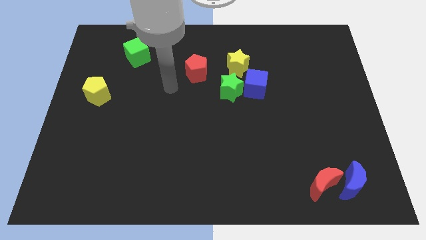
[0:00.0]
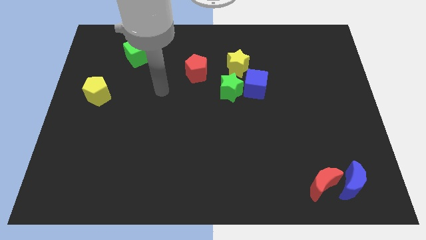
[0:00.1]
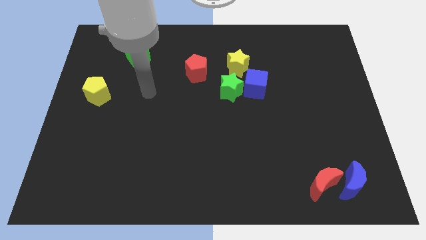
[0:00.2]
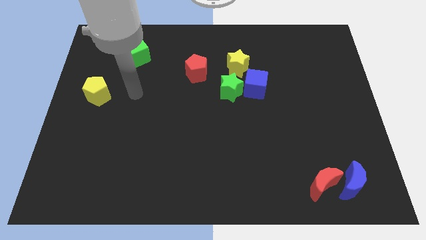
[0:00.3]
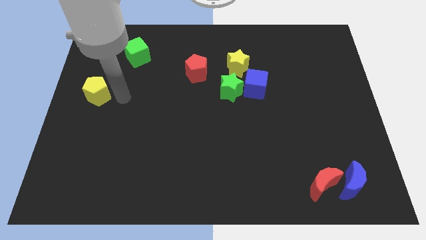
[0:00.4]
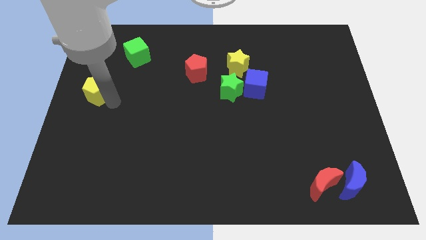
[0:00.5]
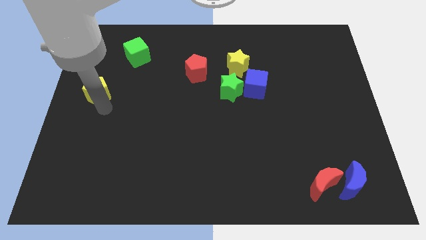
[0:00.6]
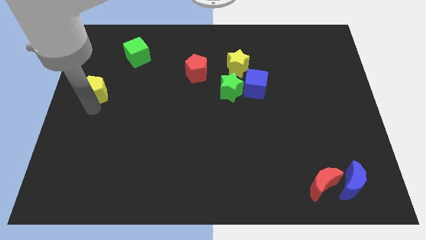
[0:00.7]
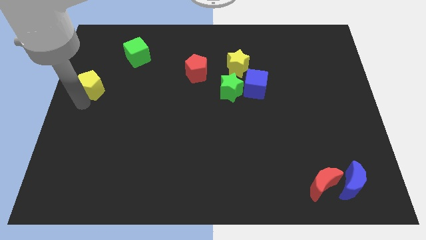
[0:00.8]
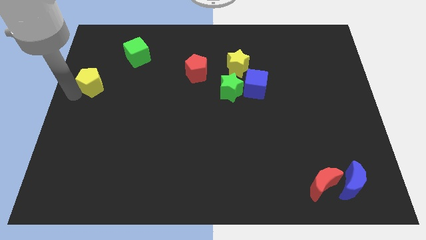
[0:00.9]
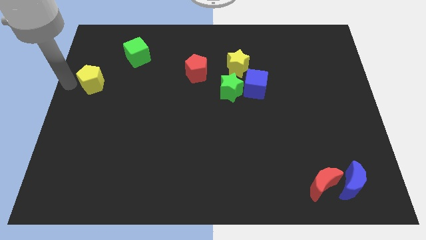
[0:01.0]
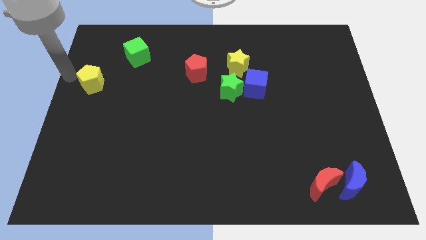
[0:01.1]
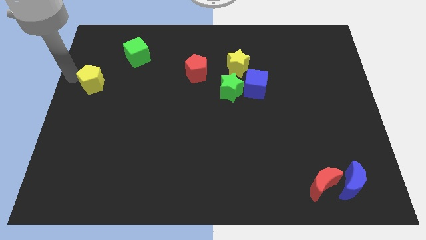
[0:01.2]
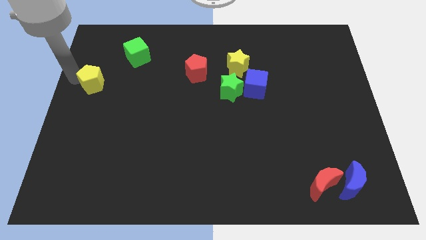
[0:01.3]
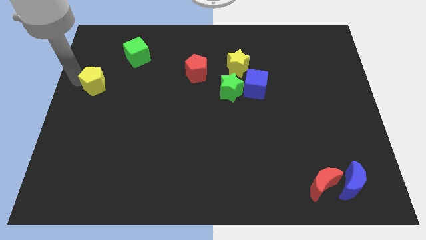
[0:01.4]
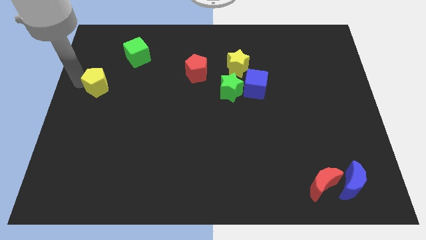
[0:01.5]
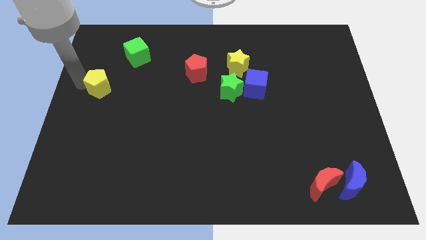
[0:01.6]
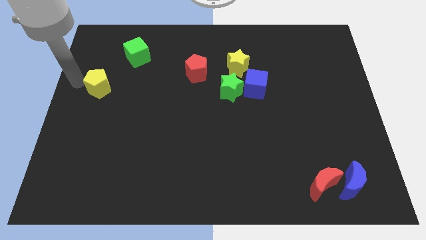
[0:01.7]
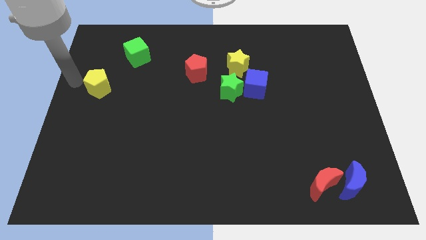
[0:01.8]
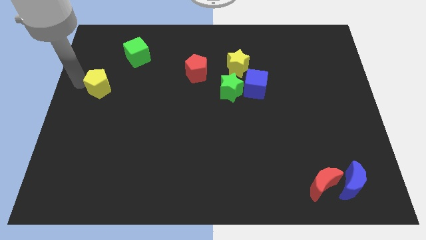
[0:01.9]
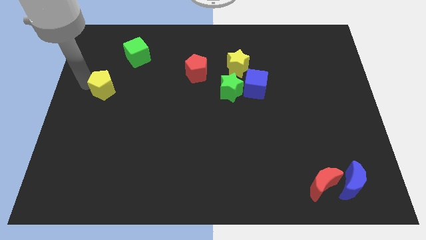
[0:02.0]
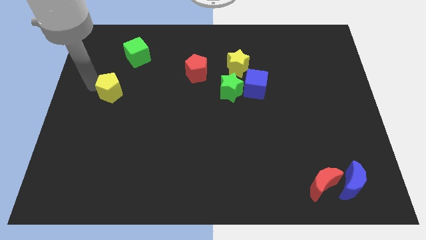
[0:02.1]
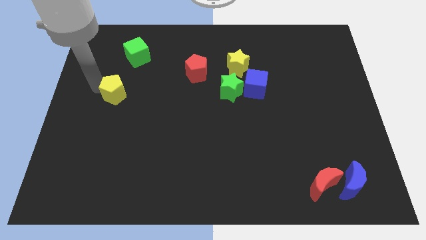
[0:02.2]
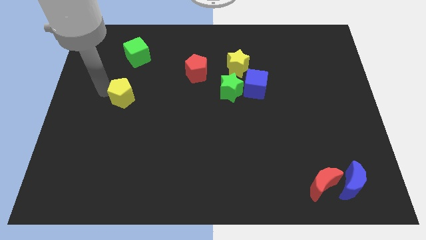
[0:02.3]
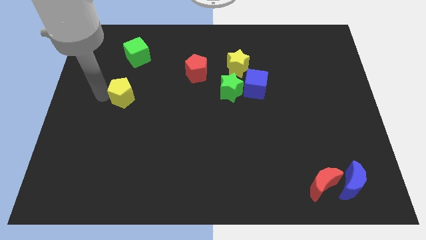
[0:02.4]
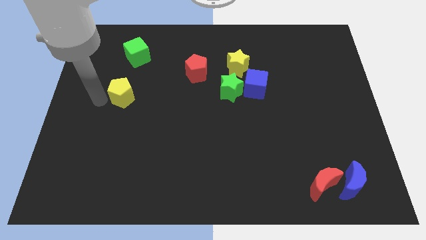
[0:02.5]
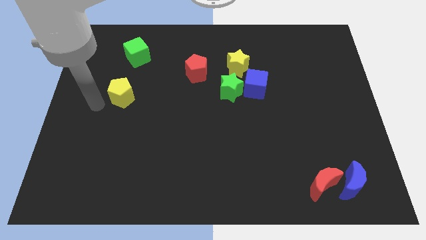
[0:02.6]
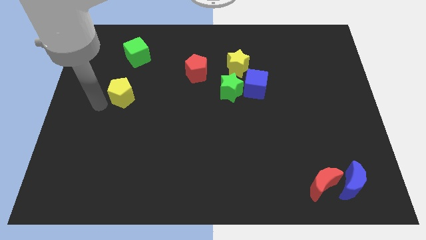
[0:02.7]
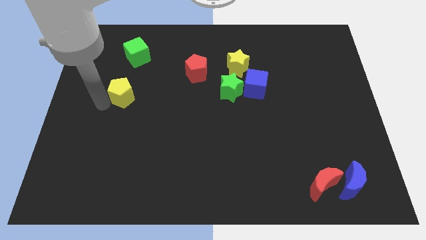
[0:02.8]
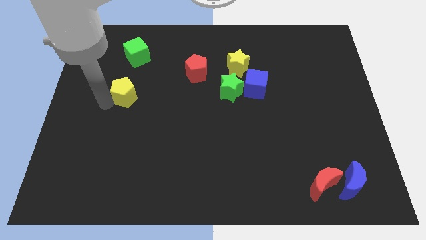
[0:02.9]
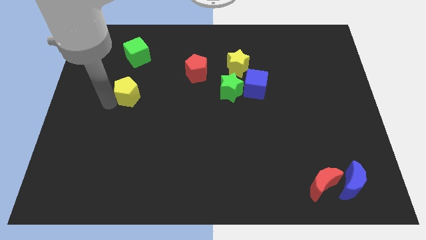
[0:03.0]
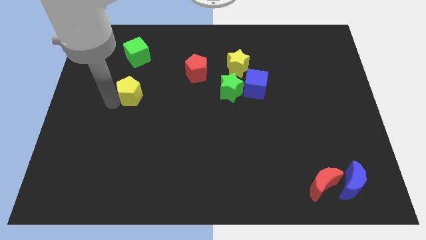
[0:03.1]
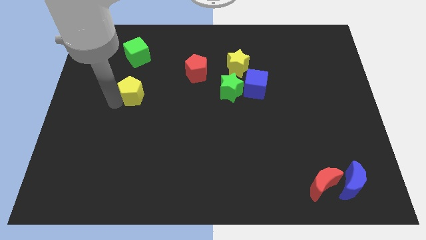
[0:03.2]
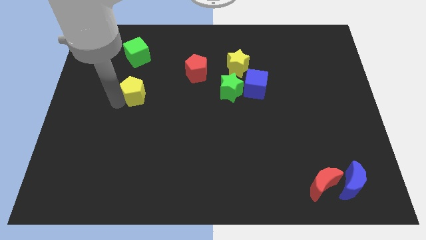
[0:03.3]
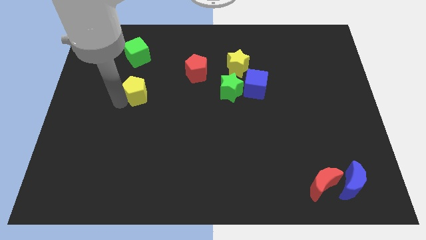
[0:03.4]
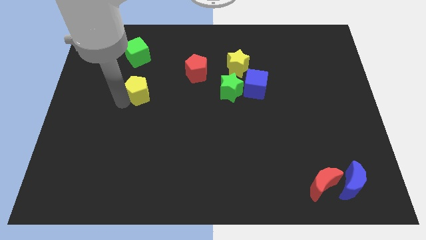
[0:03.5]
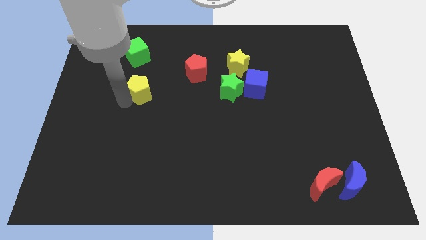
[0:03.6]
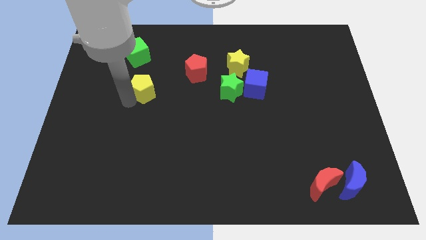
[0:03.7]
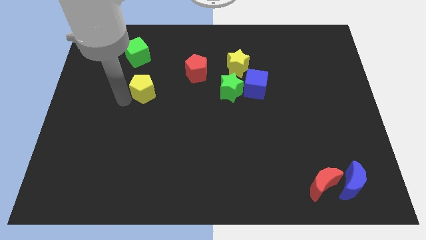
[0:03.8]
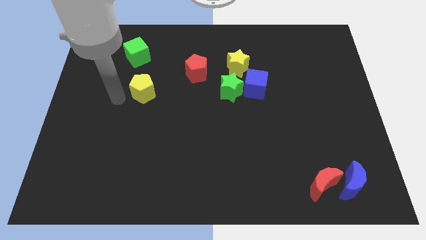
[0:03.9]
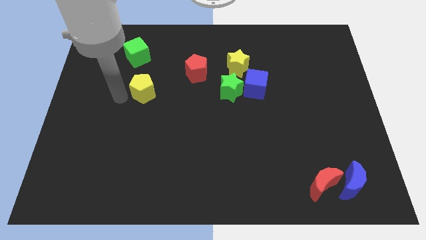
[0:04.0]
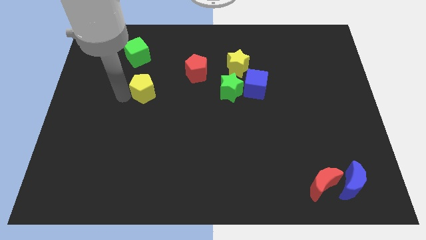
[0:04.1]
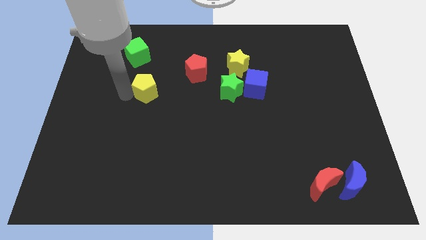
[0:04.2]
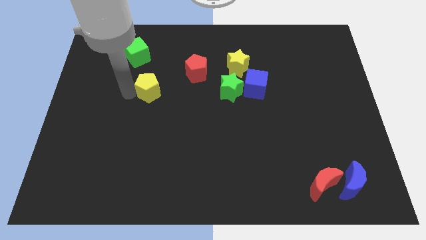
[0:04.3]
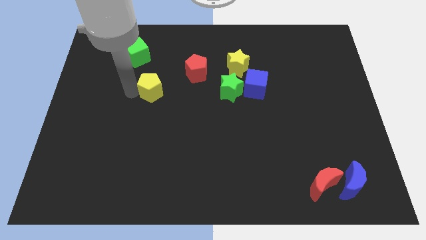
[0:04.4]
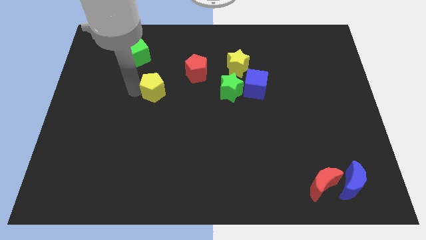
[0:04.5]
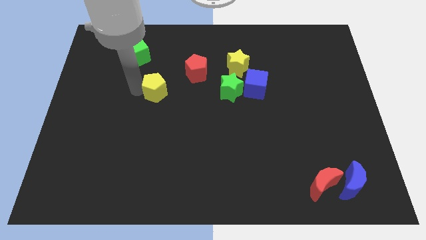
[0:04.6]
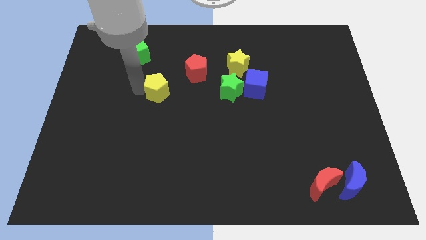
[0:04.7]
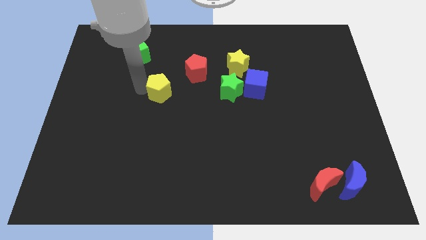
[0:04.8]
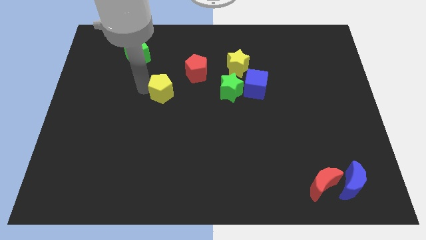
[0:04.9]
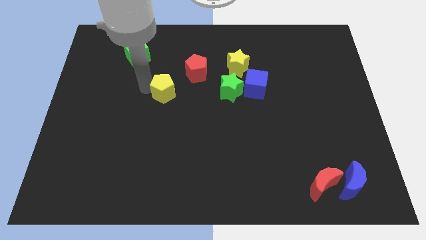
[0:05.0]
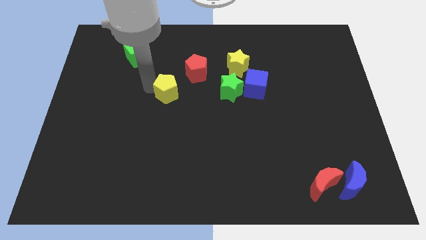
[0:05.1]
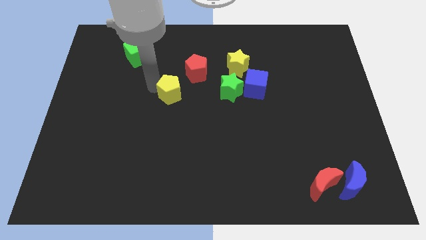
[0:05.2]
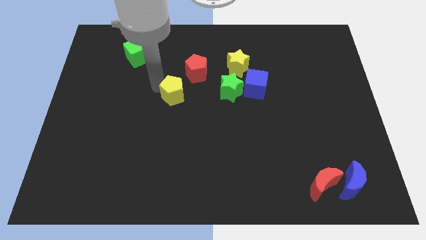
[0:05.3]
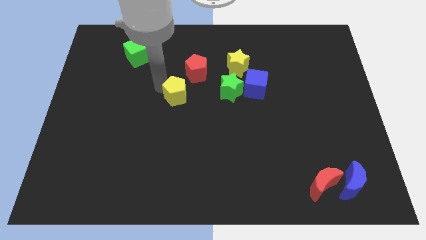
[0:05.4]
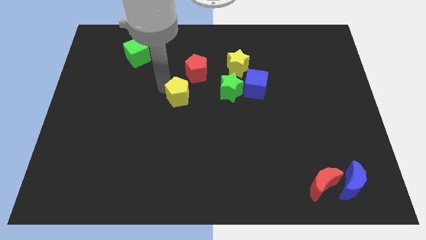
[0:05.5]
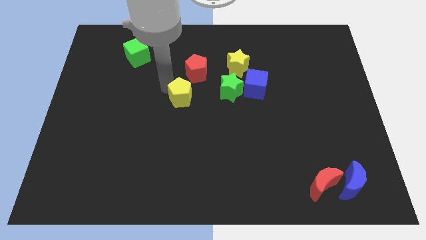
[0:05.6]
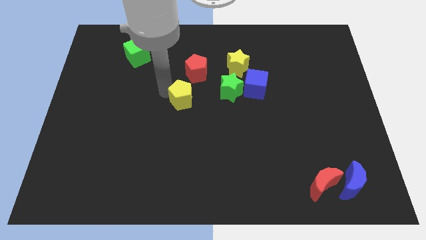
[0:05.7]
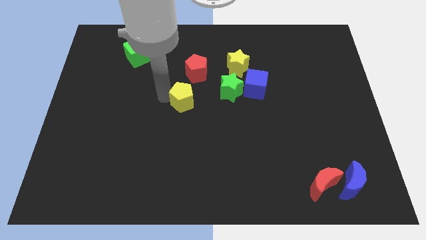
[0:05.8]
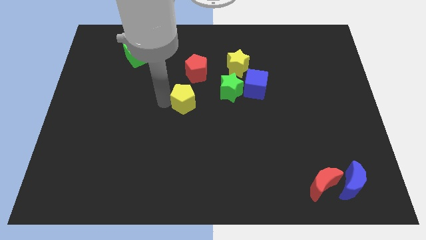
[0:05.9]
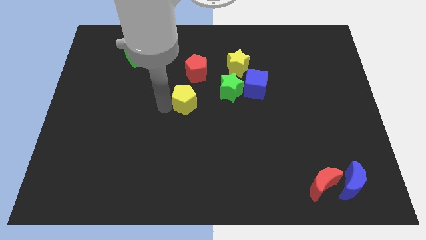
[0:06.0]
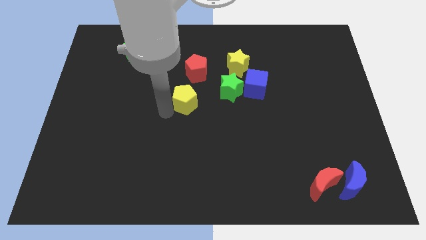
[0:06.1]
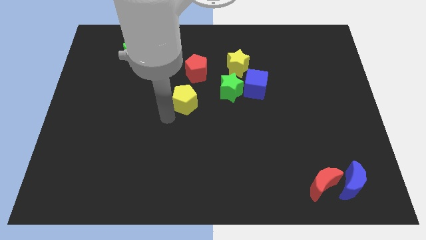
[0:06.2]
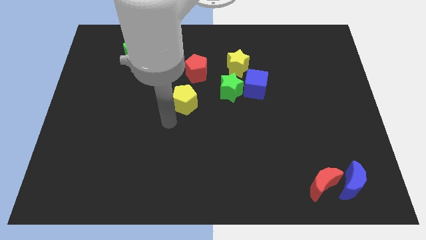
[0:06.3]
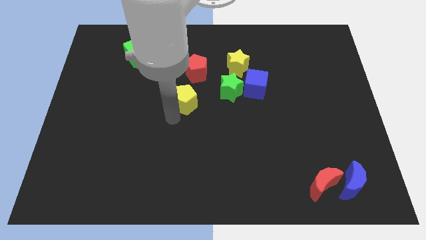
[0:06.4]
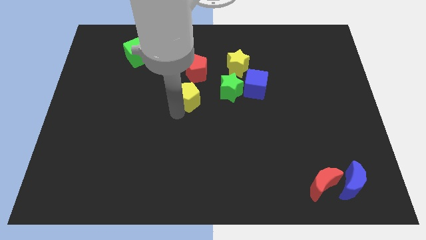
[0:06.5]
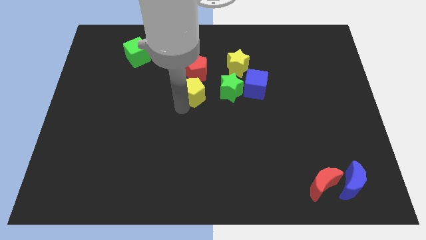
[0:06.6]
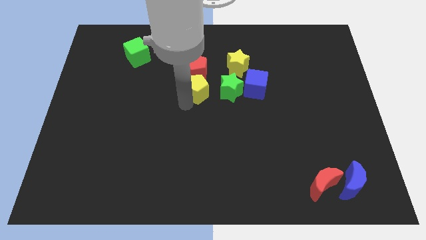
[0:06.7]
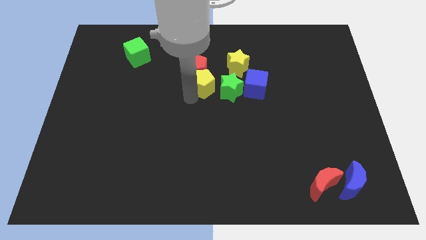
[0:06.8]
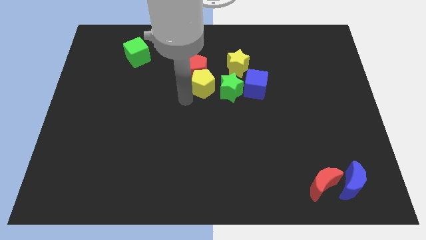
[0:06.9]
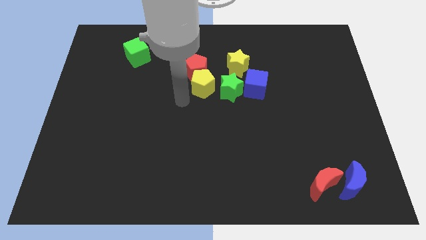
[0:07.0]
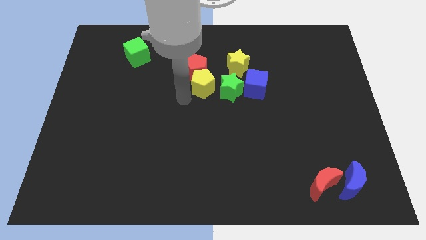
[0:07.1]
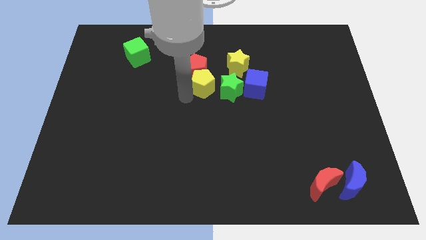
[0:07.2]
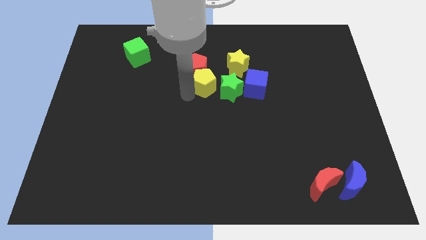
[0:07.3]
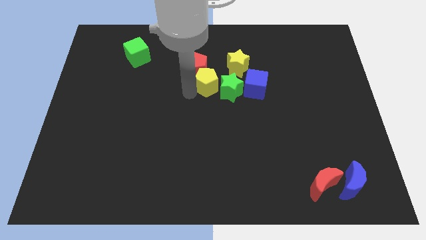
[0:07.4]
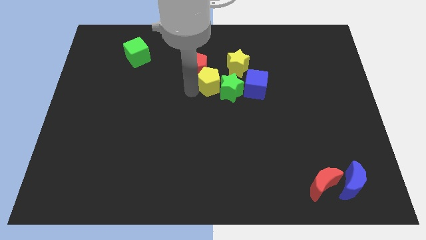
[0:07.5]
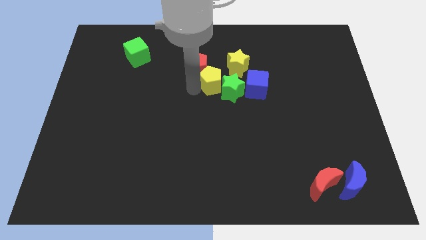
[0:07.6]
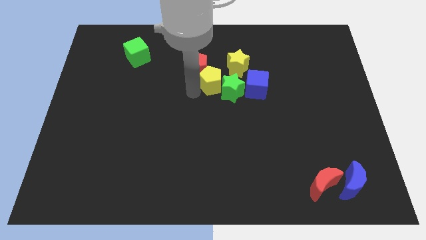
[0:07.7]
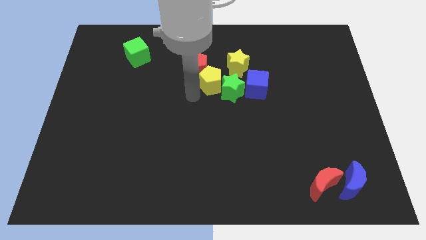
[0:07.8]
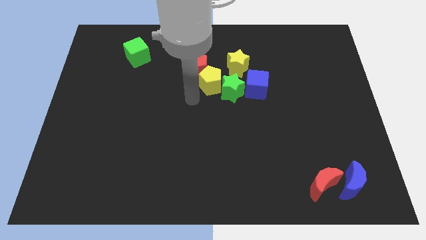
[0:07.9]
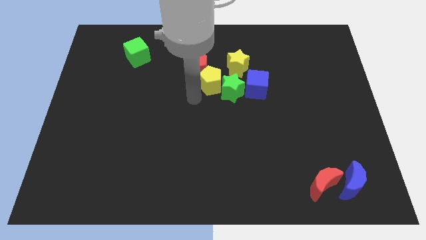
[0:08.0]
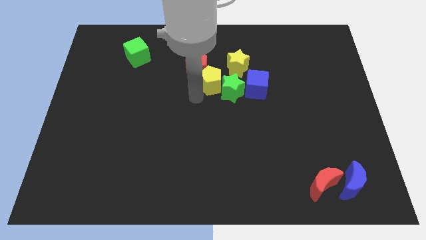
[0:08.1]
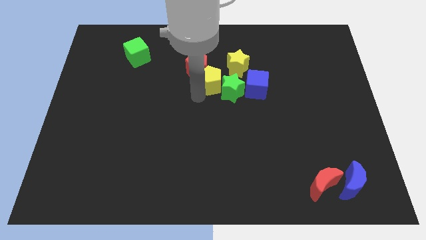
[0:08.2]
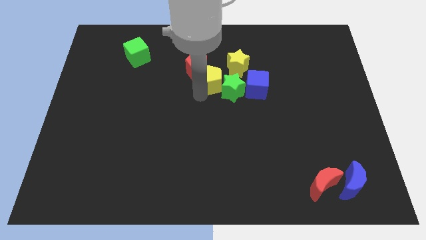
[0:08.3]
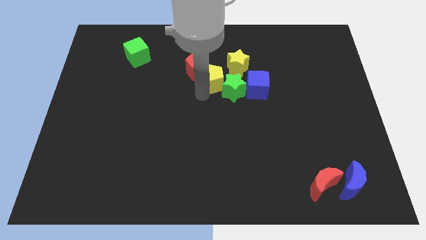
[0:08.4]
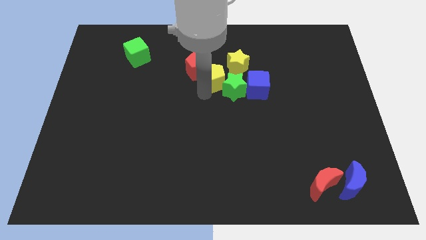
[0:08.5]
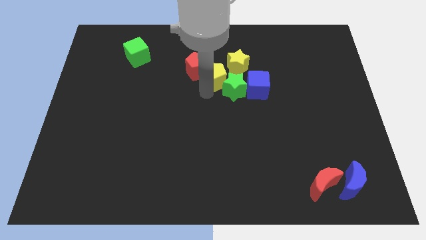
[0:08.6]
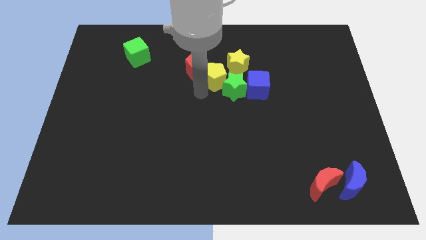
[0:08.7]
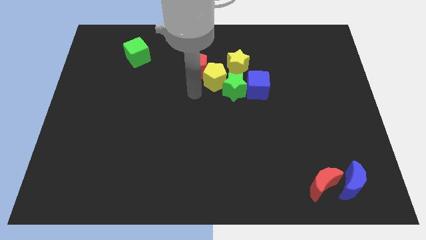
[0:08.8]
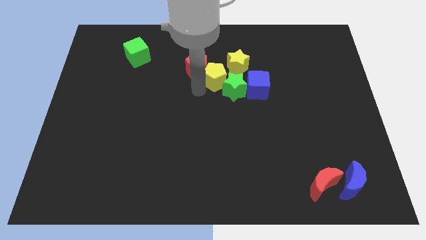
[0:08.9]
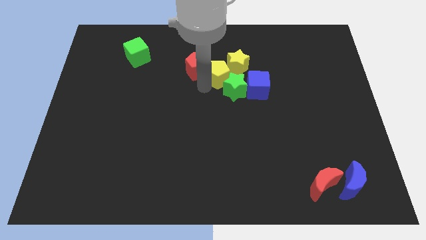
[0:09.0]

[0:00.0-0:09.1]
push the yellow pentagon towards the yellow star
